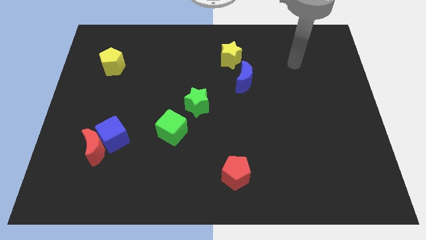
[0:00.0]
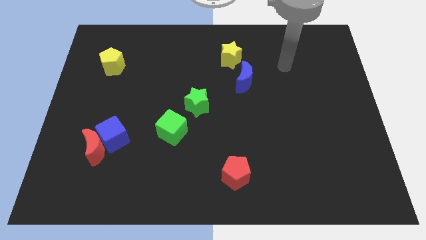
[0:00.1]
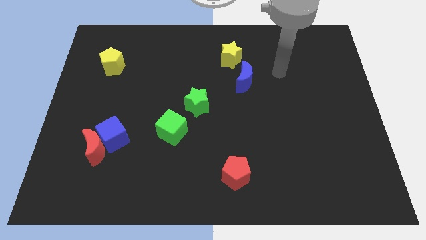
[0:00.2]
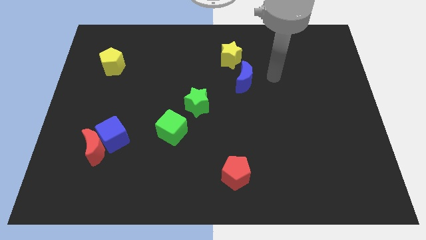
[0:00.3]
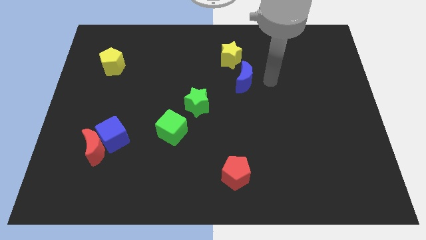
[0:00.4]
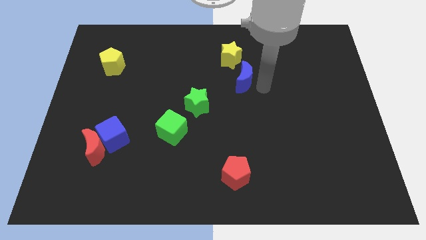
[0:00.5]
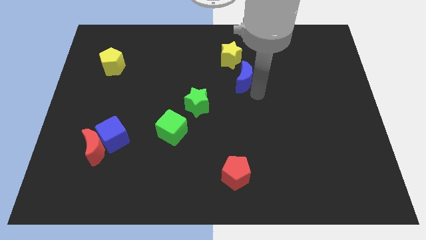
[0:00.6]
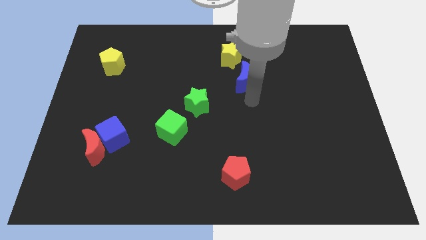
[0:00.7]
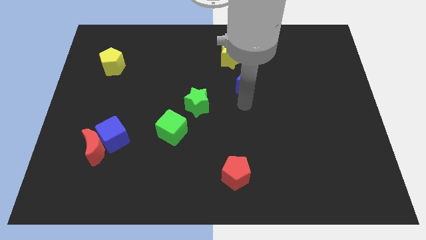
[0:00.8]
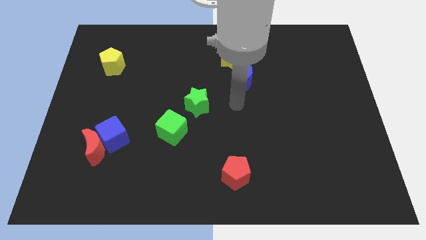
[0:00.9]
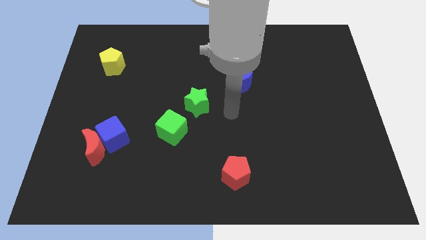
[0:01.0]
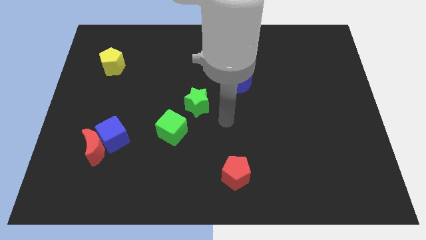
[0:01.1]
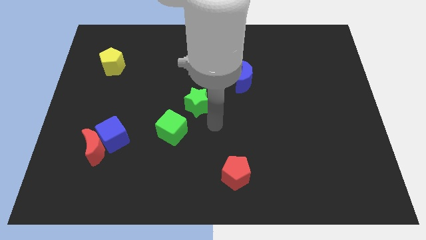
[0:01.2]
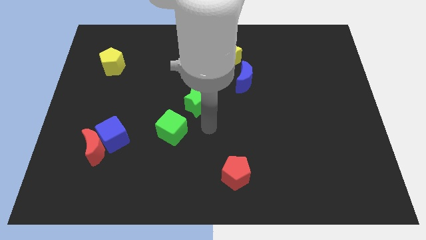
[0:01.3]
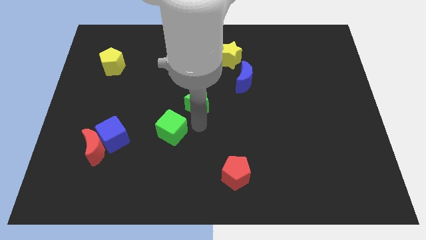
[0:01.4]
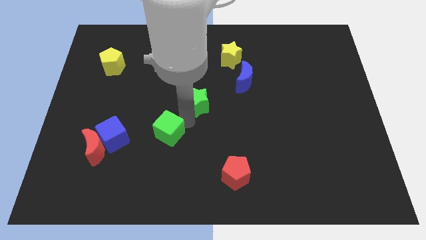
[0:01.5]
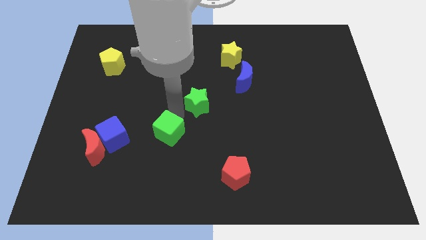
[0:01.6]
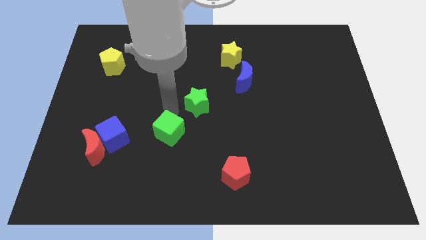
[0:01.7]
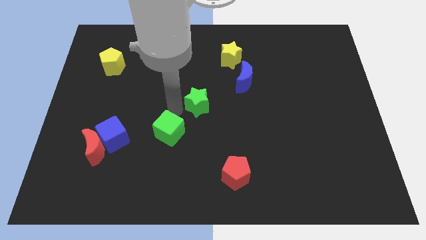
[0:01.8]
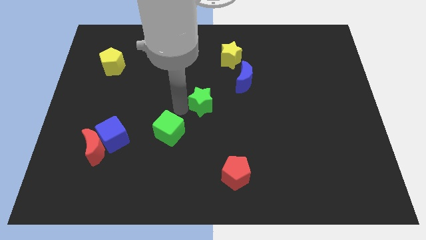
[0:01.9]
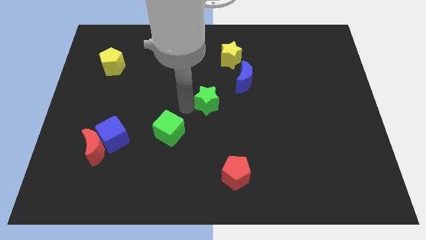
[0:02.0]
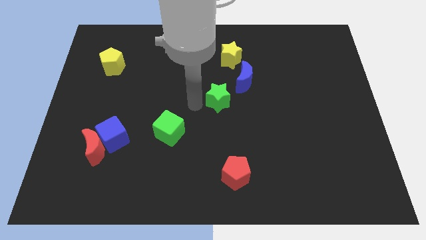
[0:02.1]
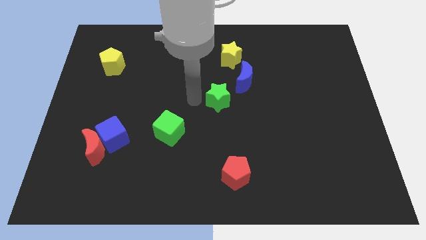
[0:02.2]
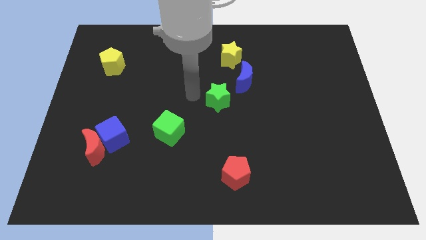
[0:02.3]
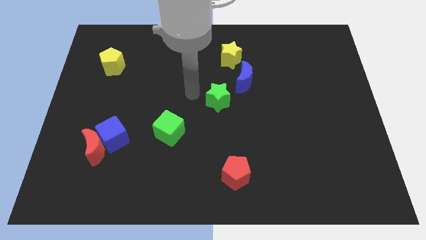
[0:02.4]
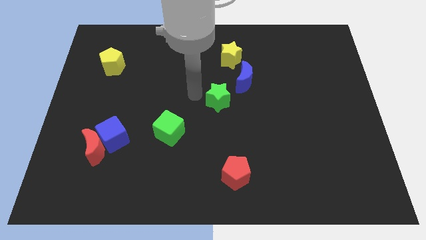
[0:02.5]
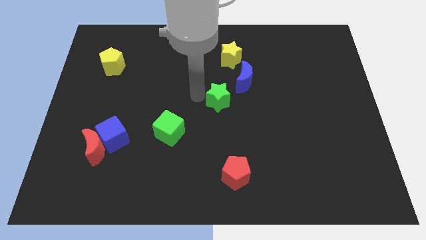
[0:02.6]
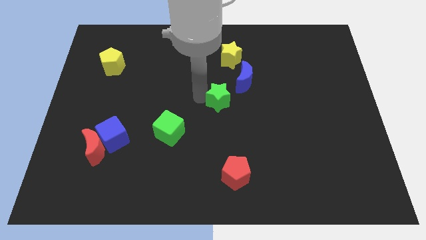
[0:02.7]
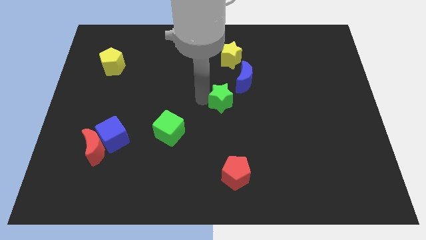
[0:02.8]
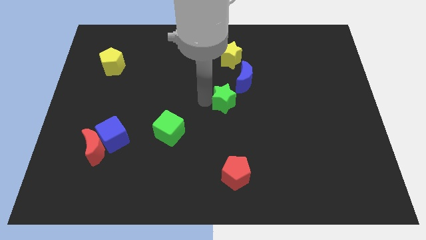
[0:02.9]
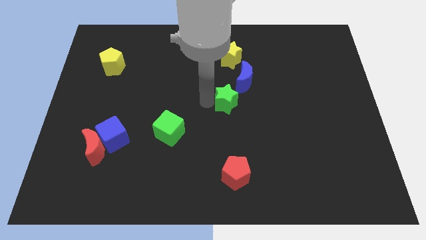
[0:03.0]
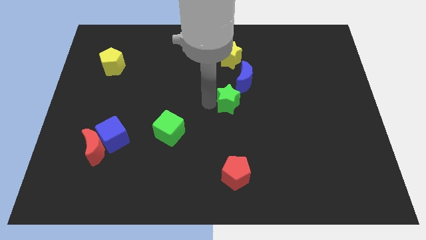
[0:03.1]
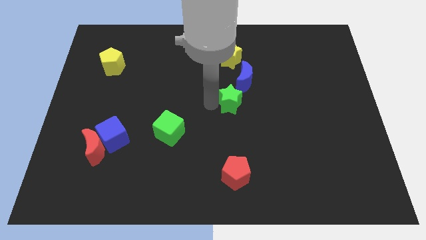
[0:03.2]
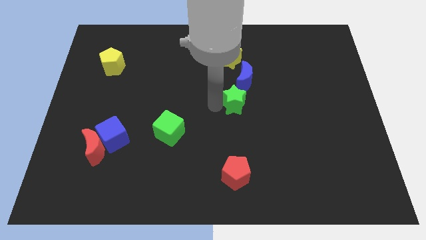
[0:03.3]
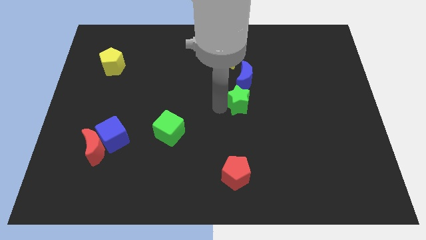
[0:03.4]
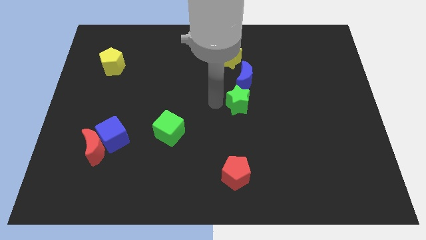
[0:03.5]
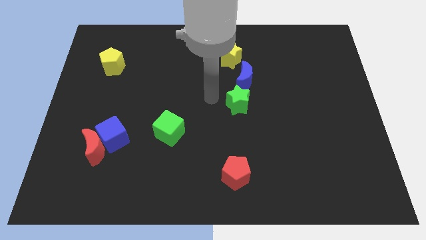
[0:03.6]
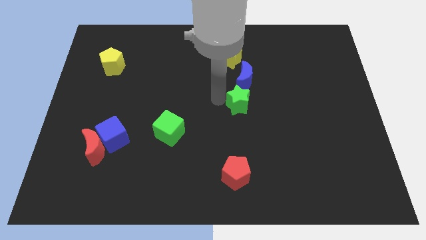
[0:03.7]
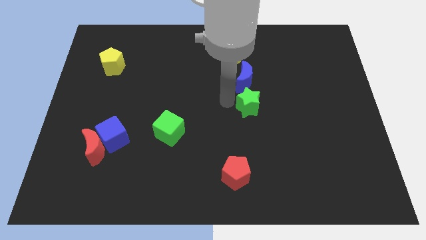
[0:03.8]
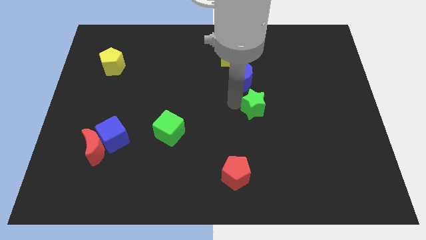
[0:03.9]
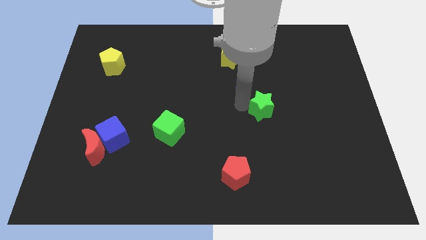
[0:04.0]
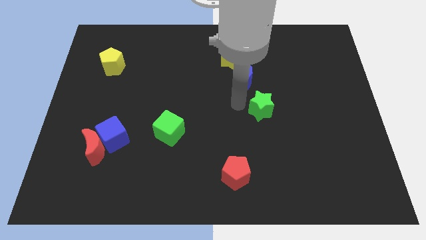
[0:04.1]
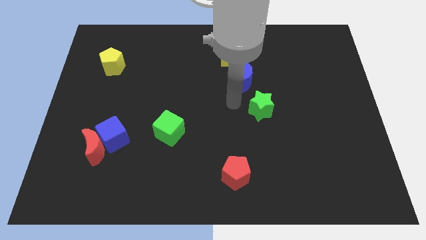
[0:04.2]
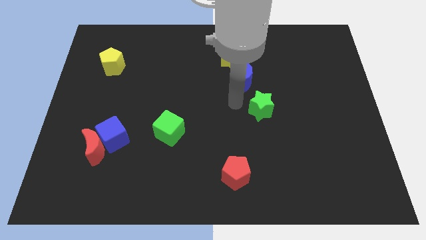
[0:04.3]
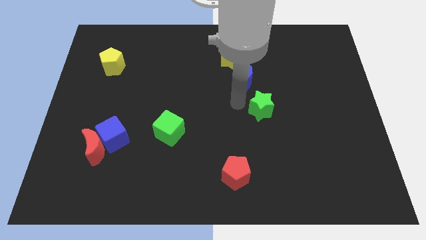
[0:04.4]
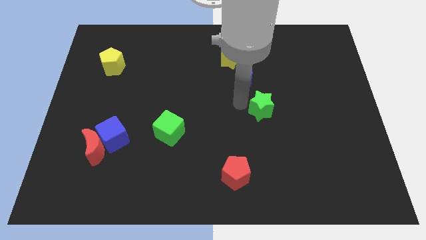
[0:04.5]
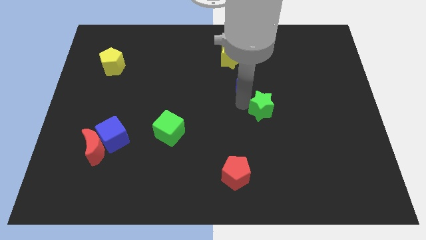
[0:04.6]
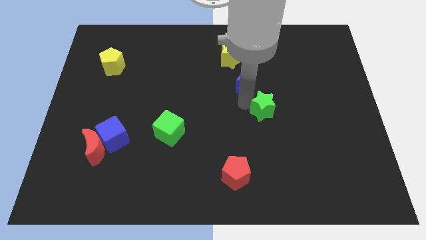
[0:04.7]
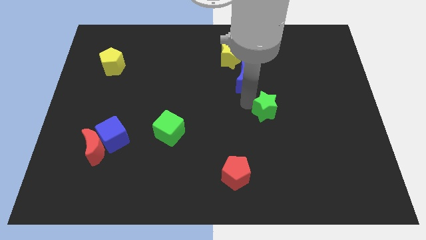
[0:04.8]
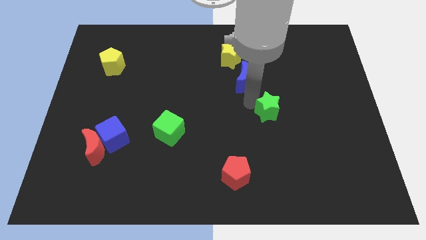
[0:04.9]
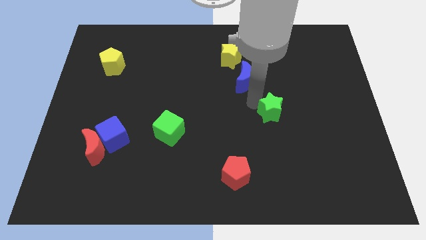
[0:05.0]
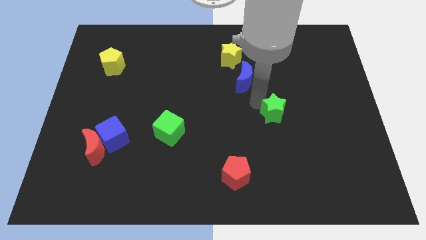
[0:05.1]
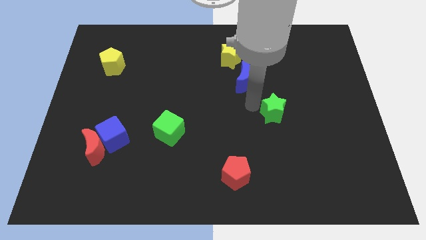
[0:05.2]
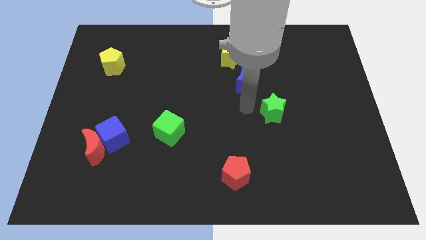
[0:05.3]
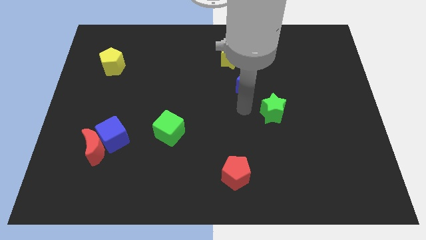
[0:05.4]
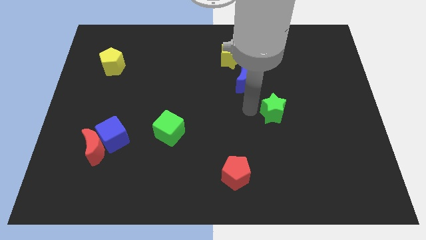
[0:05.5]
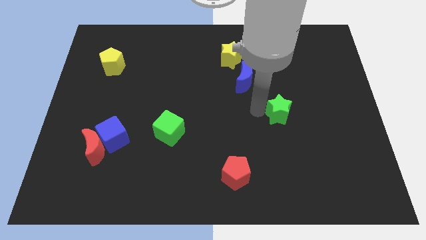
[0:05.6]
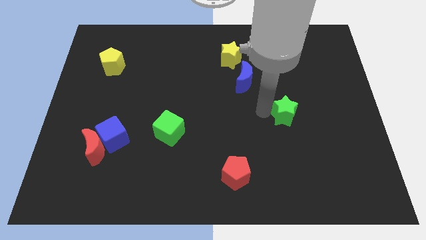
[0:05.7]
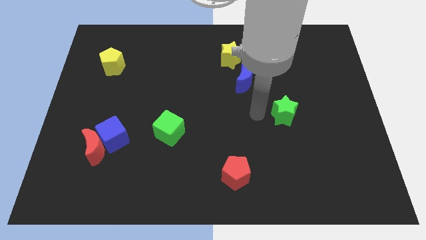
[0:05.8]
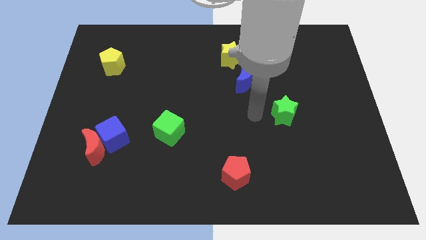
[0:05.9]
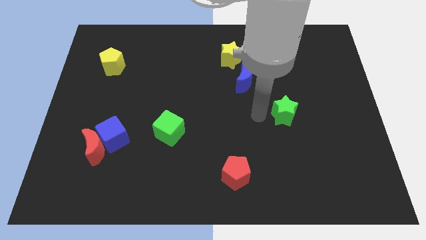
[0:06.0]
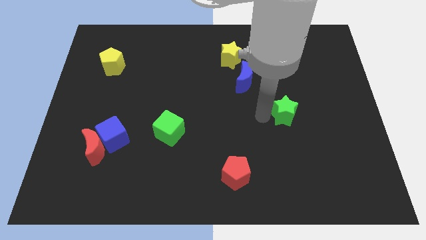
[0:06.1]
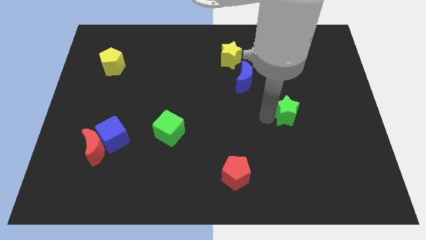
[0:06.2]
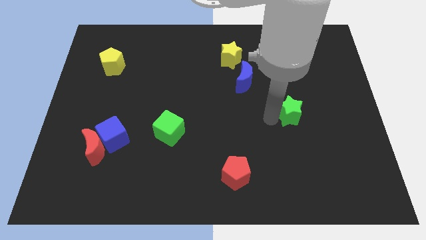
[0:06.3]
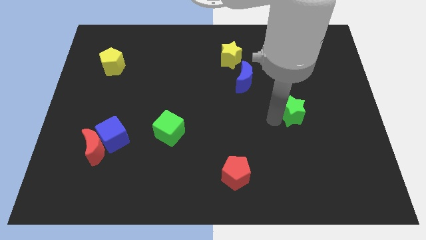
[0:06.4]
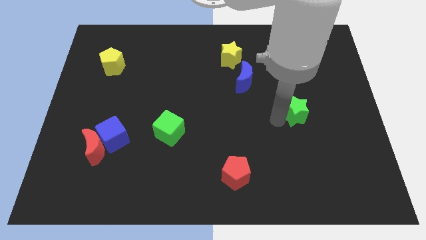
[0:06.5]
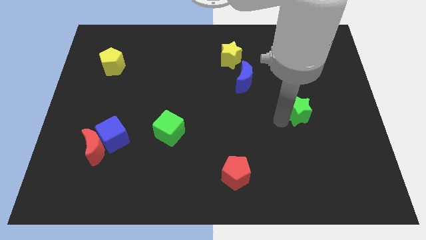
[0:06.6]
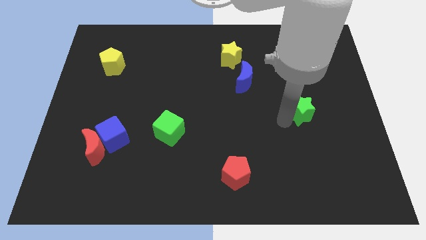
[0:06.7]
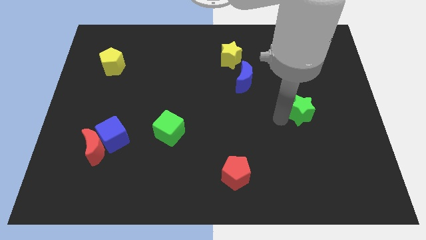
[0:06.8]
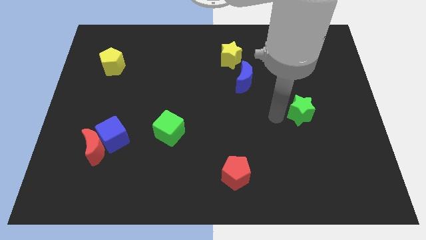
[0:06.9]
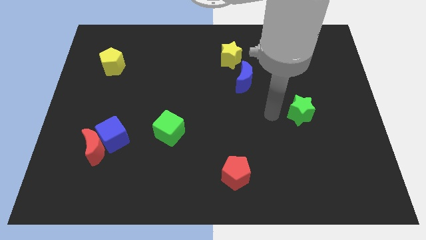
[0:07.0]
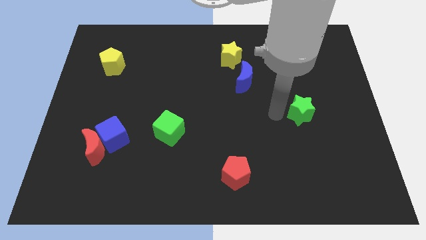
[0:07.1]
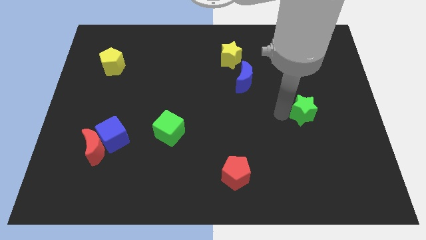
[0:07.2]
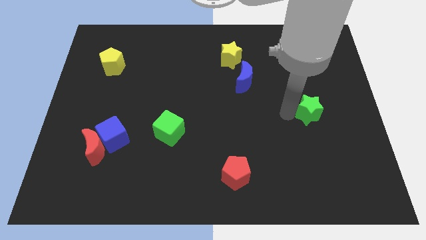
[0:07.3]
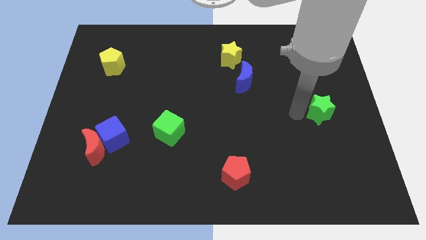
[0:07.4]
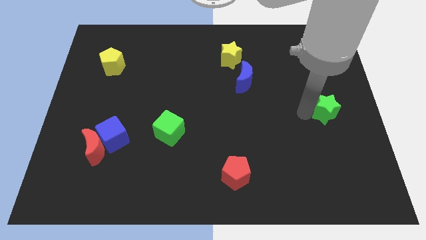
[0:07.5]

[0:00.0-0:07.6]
push the green star to the right side
